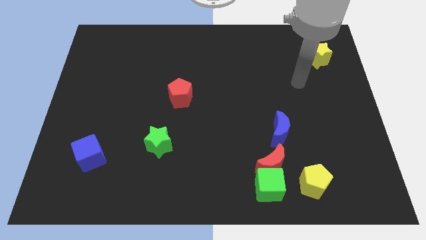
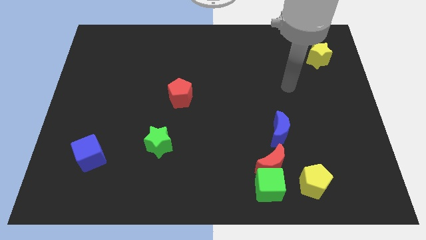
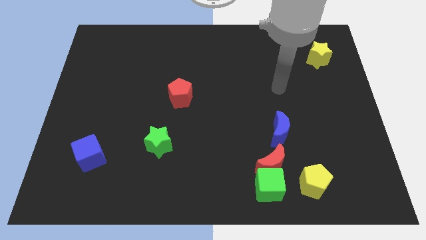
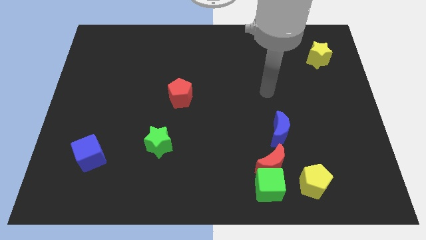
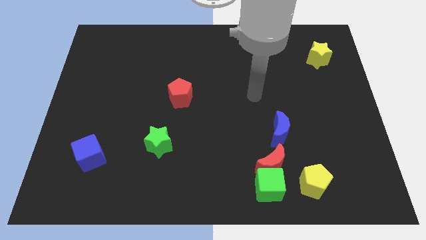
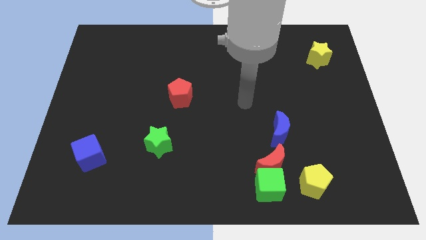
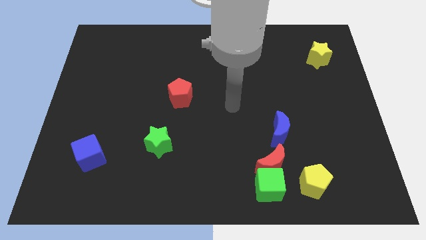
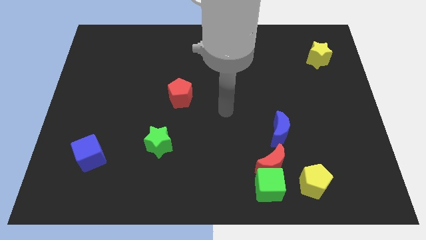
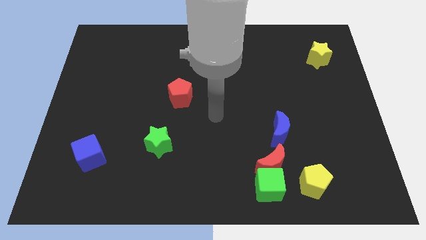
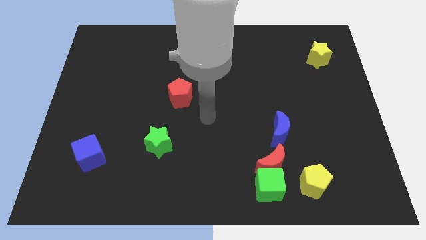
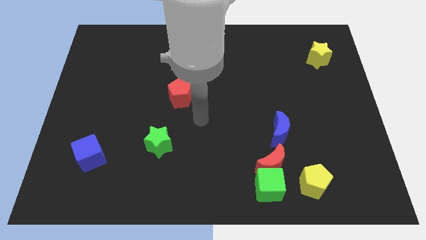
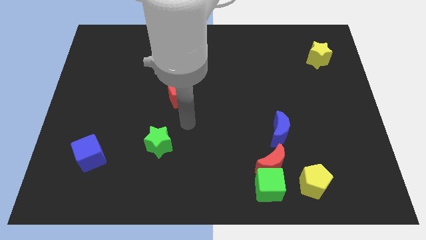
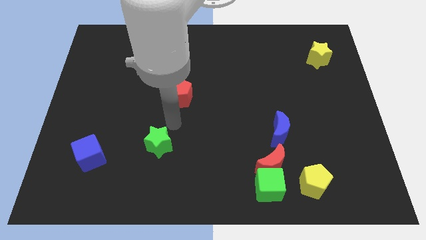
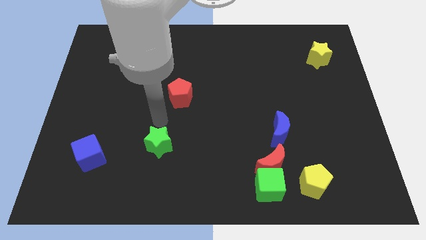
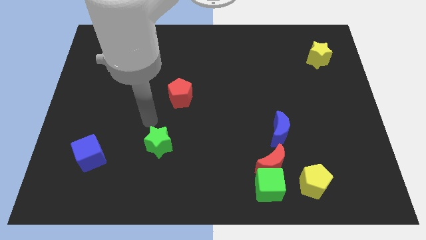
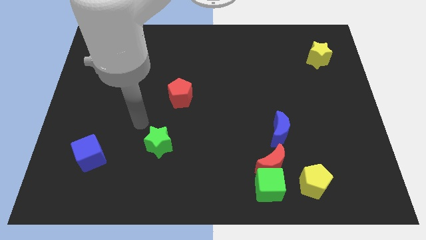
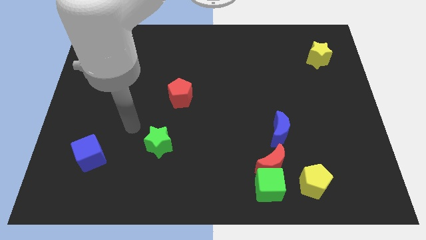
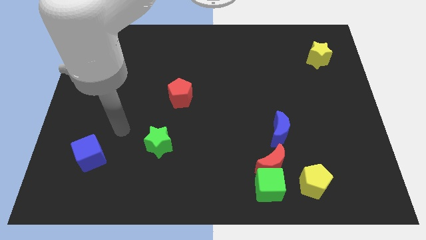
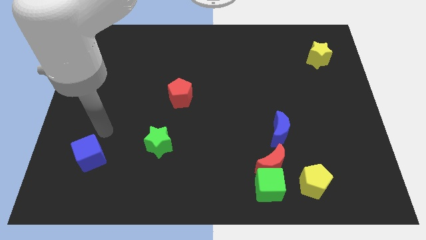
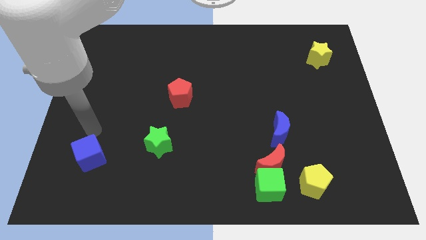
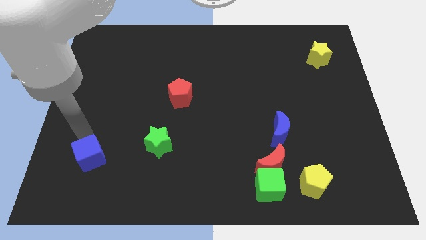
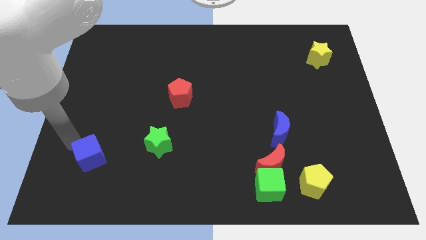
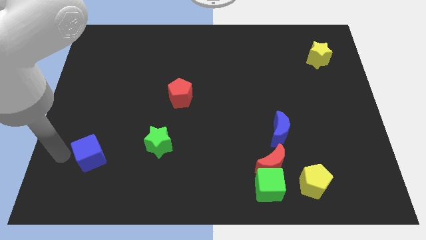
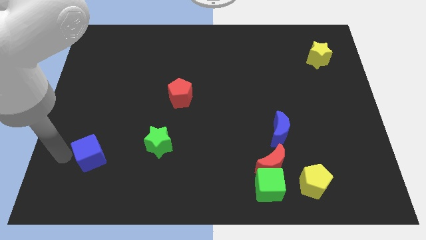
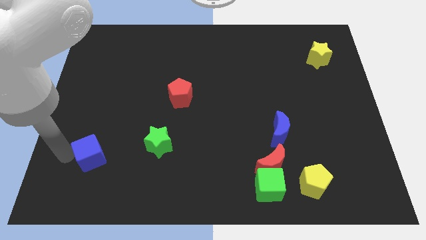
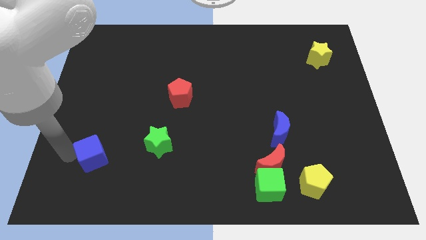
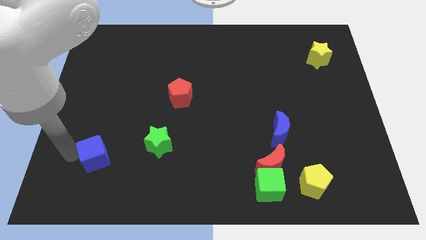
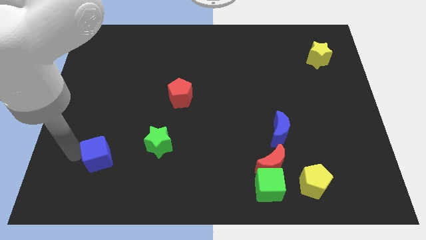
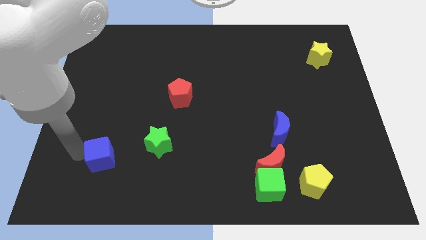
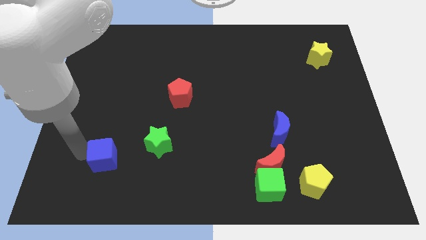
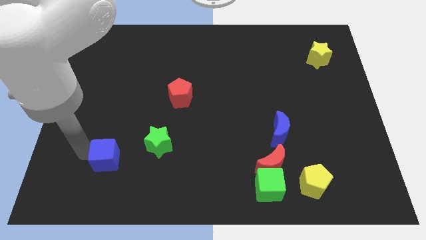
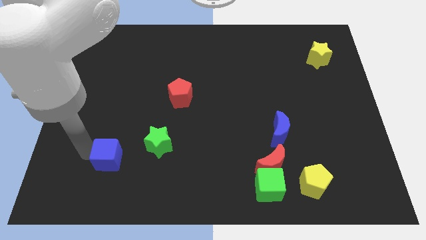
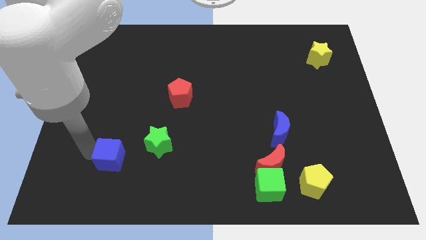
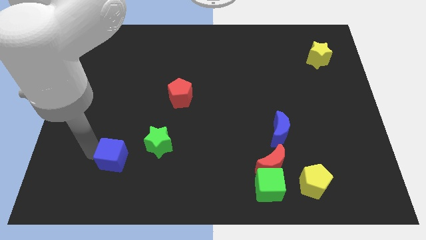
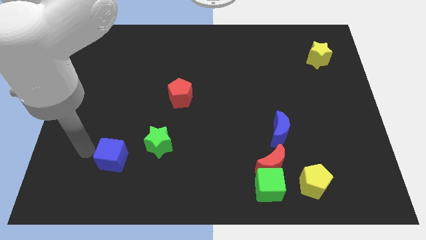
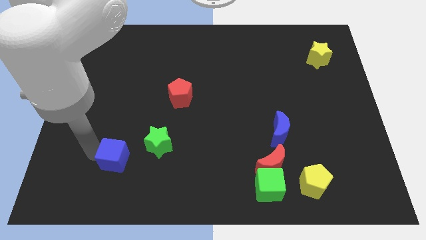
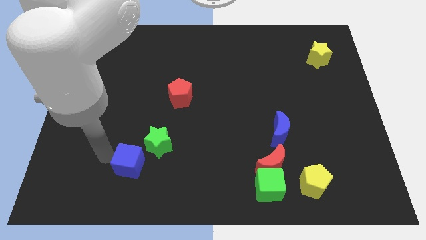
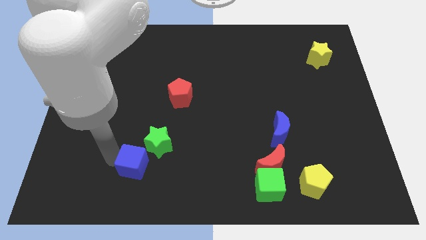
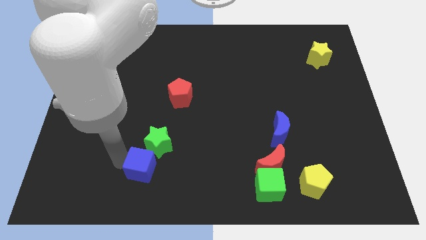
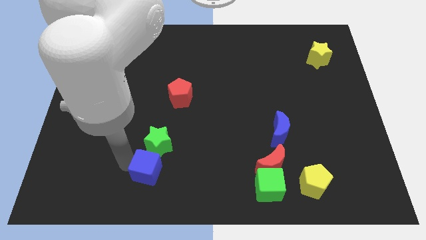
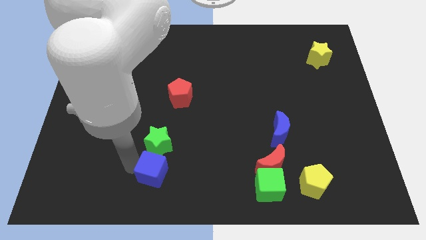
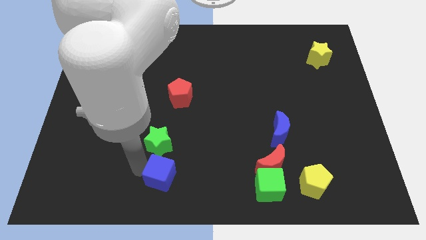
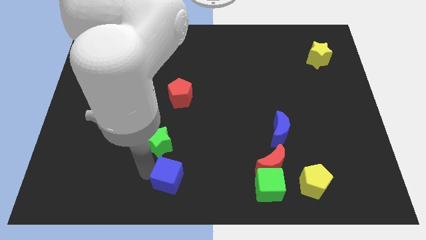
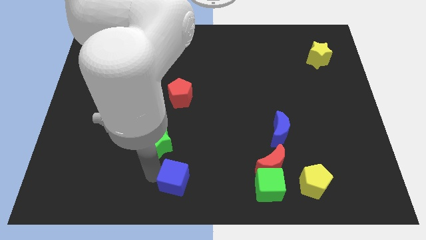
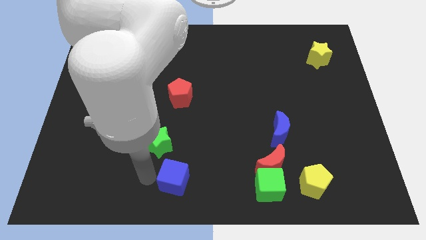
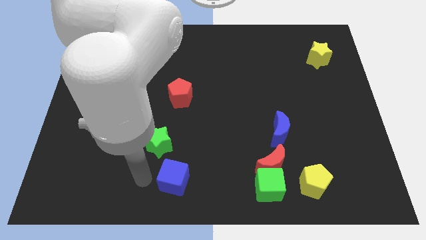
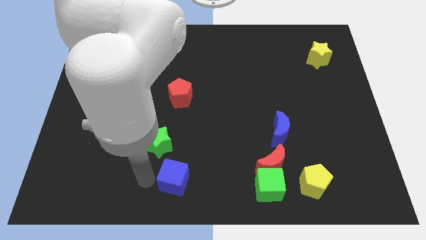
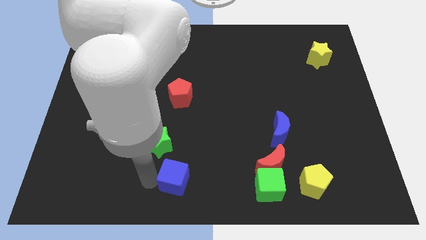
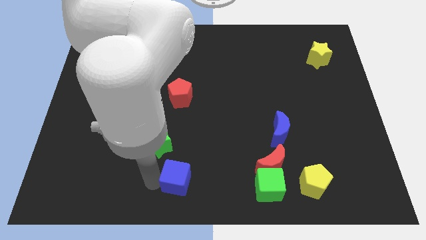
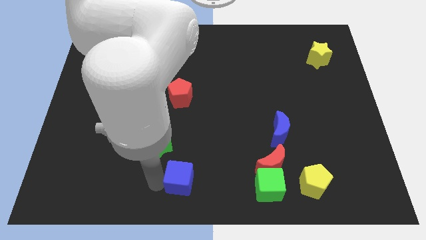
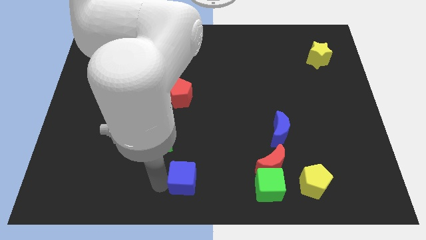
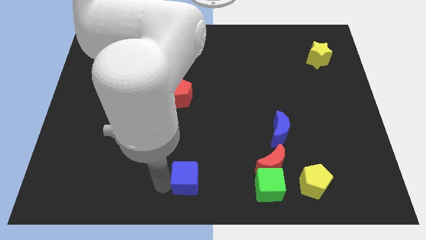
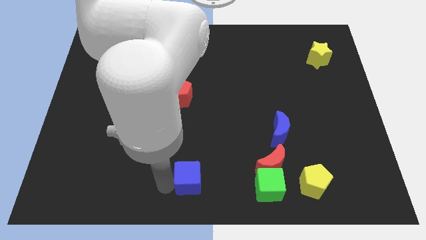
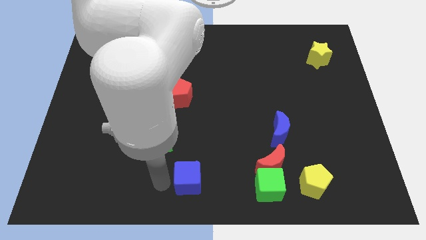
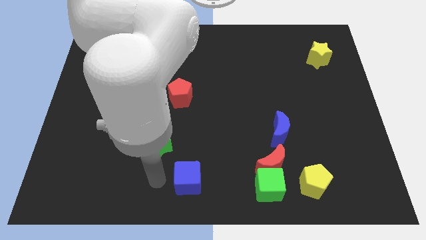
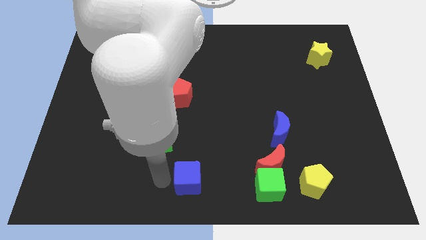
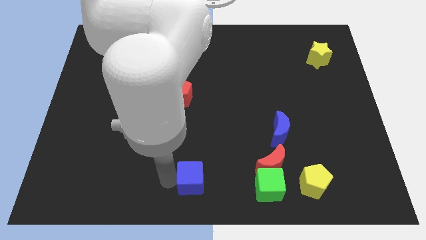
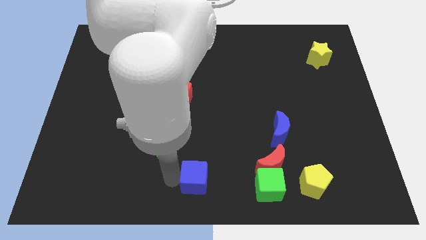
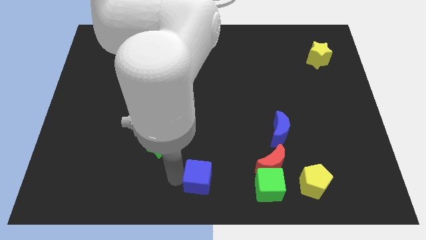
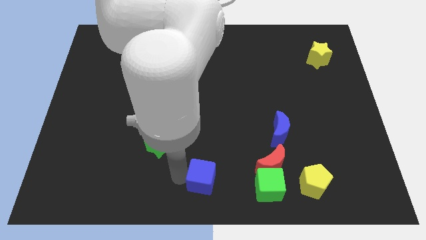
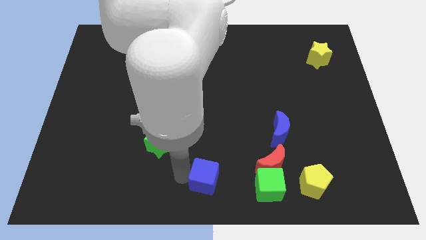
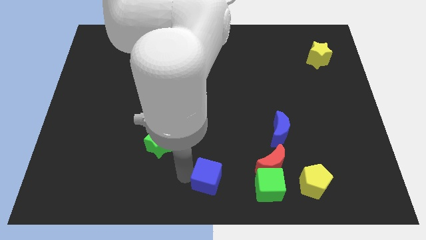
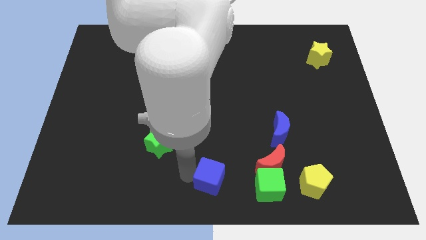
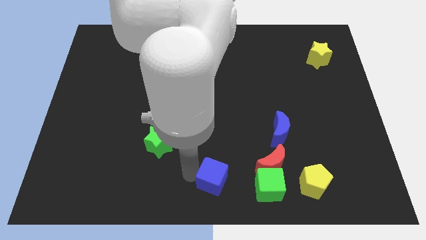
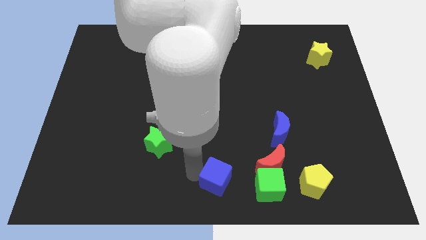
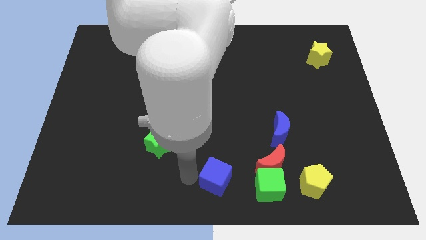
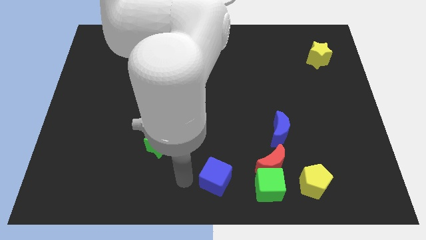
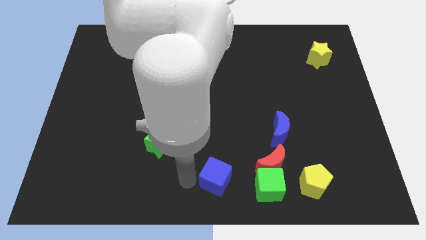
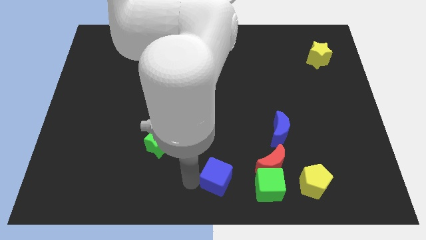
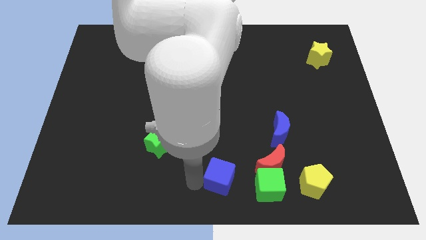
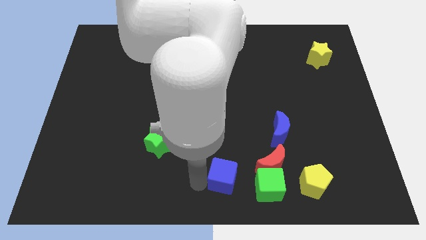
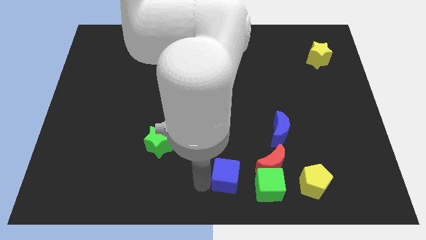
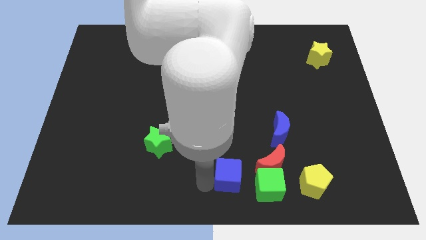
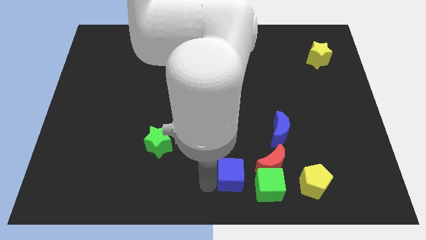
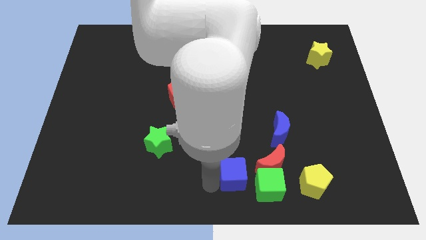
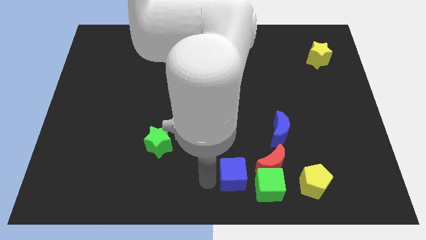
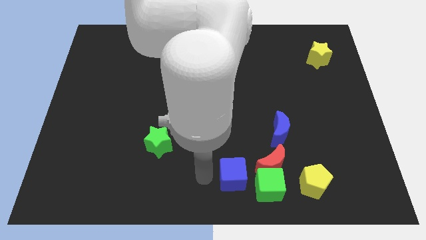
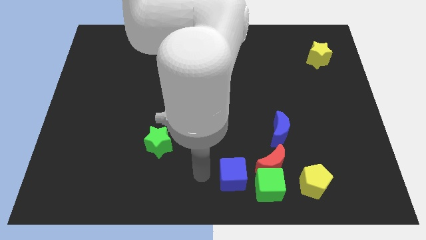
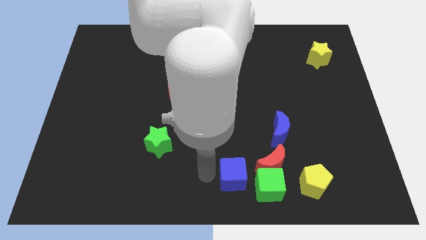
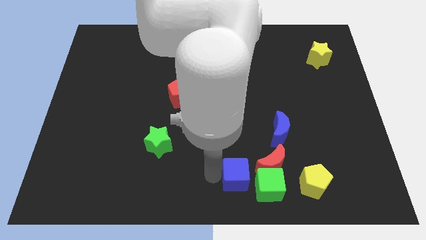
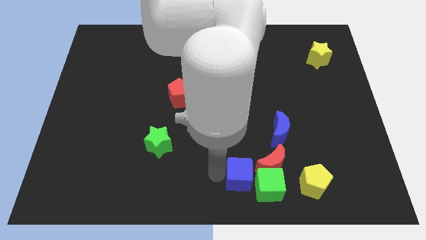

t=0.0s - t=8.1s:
slide the blue cube towards the green cube
